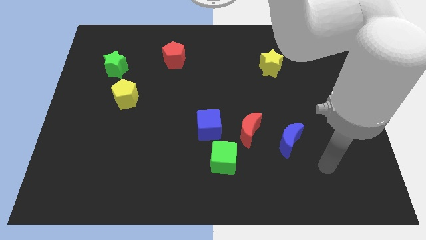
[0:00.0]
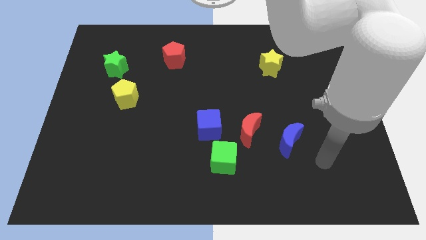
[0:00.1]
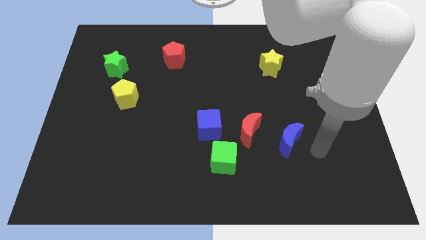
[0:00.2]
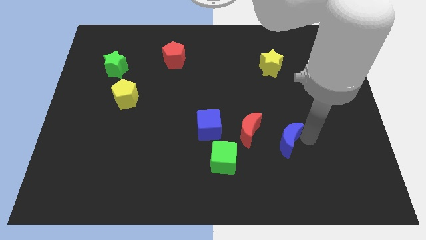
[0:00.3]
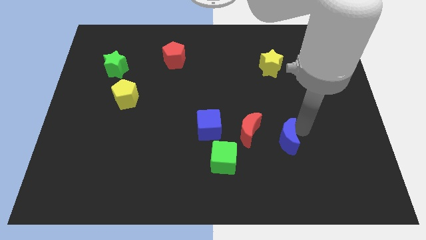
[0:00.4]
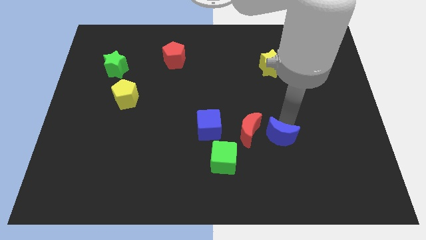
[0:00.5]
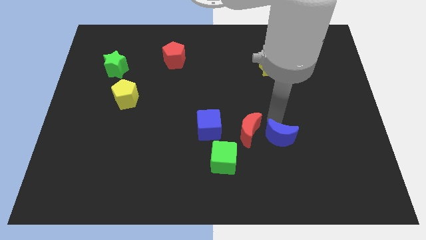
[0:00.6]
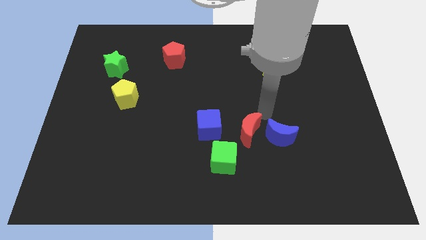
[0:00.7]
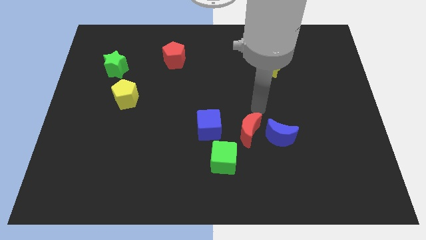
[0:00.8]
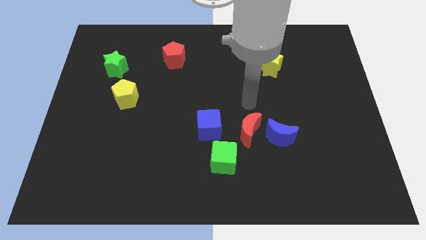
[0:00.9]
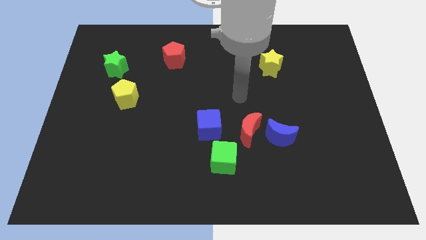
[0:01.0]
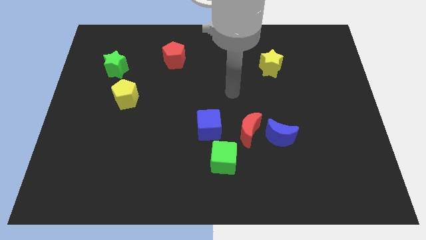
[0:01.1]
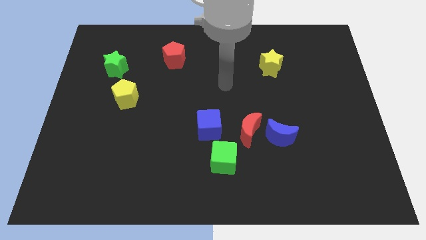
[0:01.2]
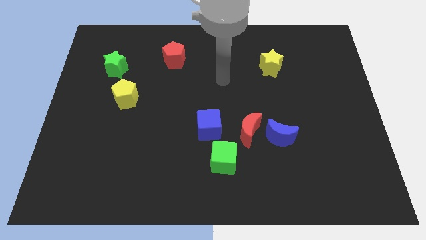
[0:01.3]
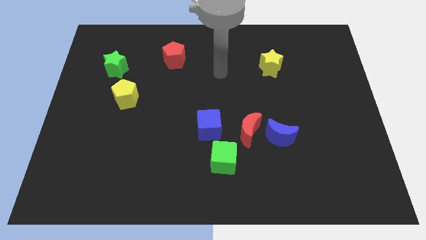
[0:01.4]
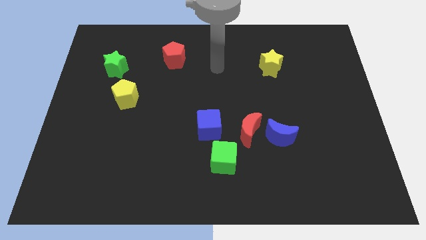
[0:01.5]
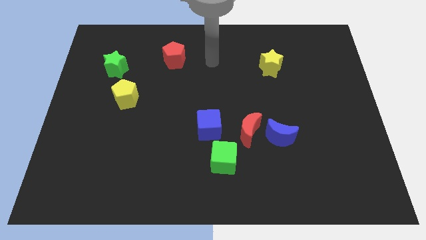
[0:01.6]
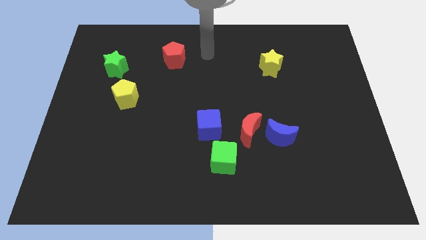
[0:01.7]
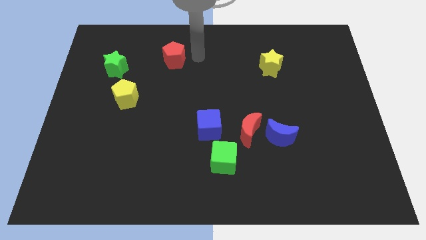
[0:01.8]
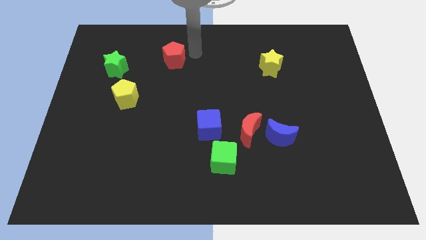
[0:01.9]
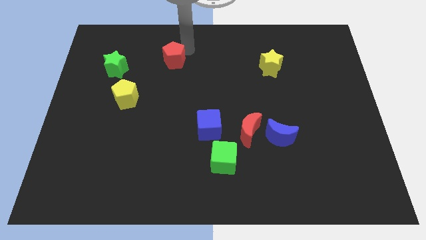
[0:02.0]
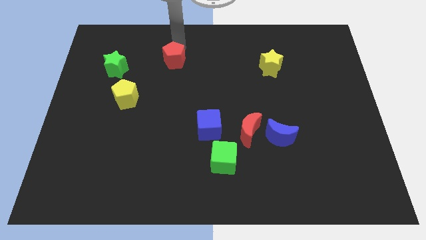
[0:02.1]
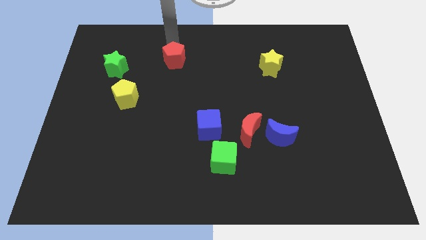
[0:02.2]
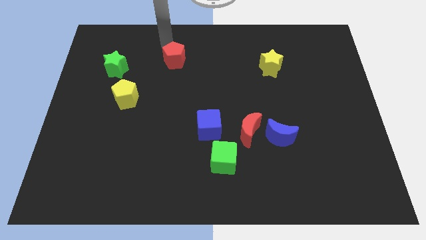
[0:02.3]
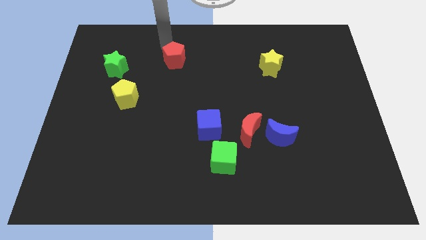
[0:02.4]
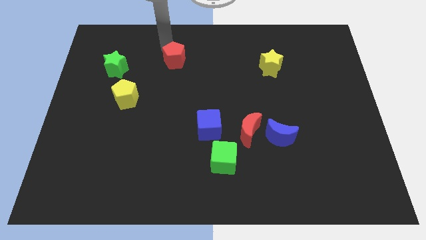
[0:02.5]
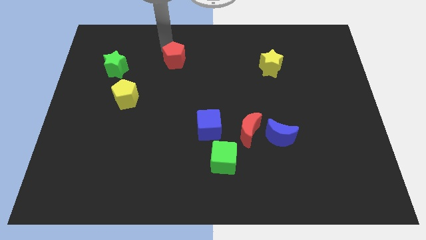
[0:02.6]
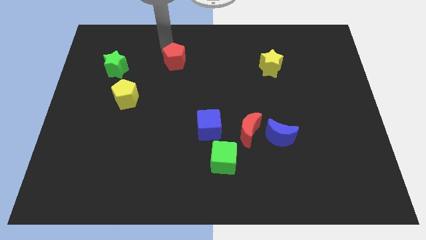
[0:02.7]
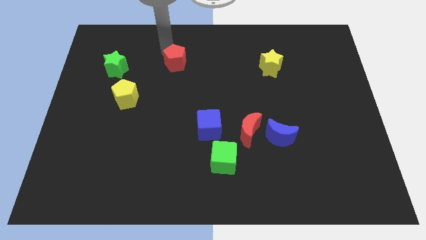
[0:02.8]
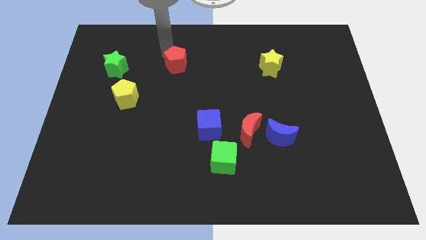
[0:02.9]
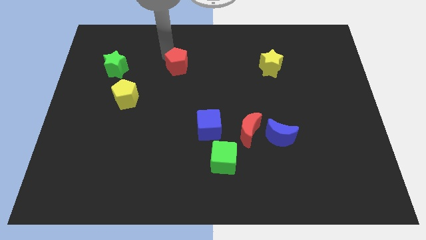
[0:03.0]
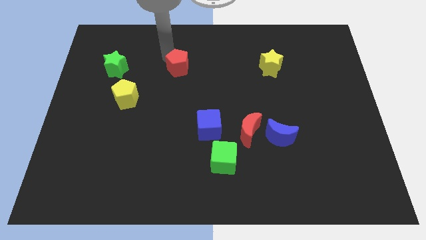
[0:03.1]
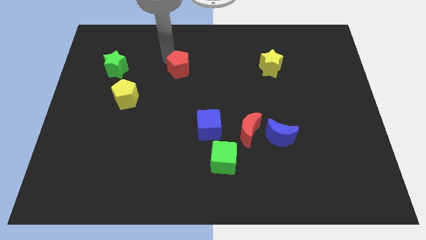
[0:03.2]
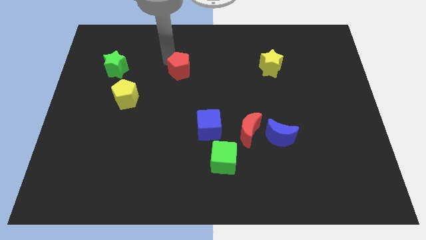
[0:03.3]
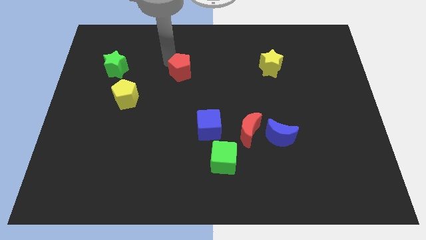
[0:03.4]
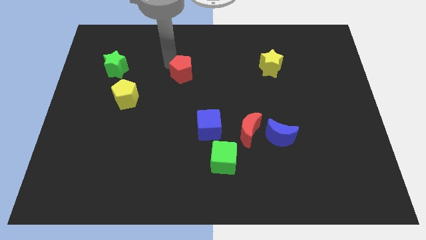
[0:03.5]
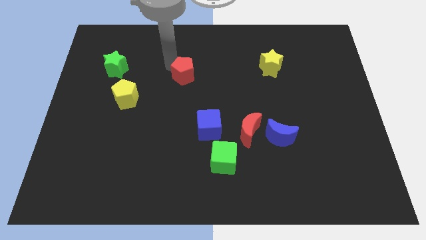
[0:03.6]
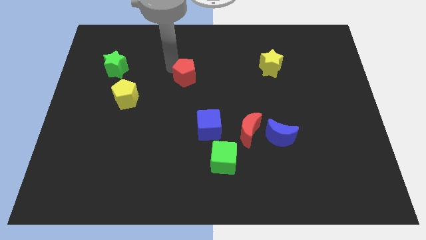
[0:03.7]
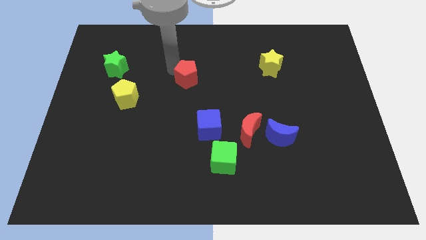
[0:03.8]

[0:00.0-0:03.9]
push the red pentagon downwards and to the right diagonally somewhat

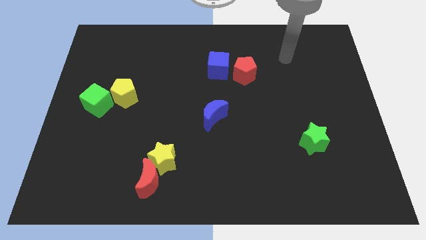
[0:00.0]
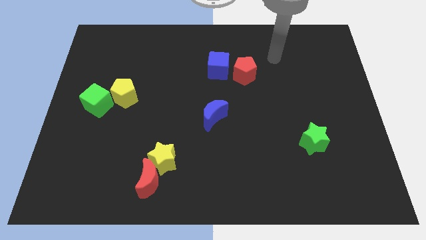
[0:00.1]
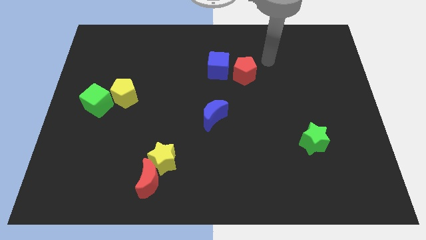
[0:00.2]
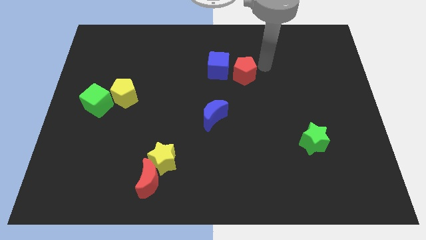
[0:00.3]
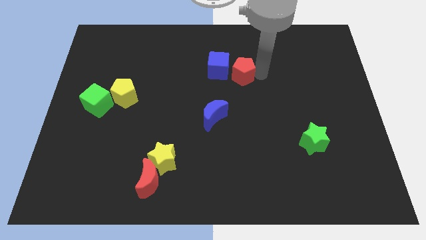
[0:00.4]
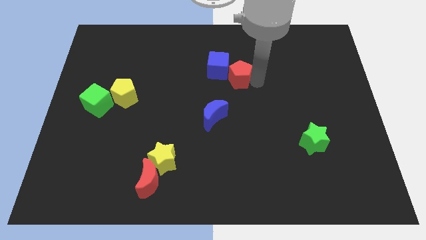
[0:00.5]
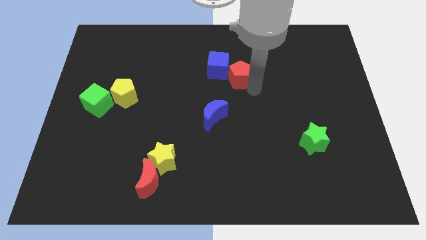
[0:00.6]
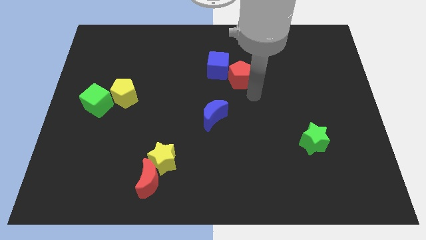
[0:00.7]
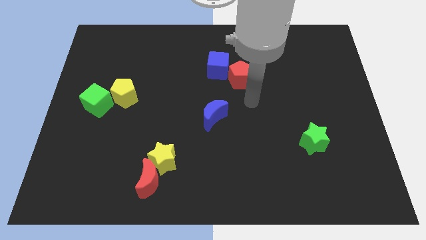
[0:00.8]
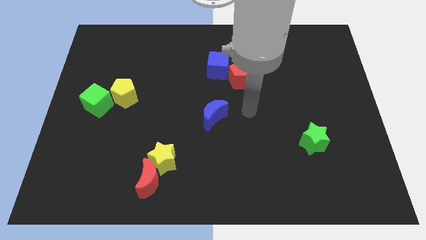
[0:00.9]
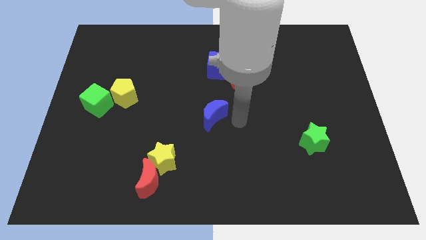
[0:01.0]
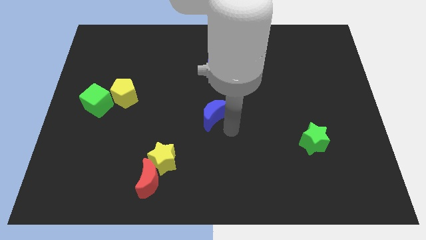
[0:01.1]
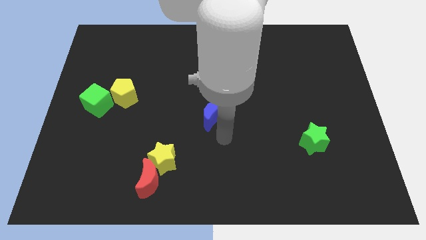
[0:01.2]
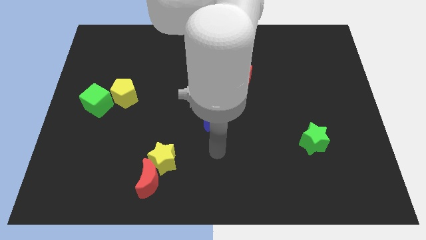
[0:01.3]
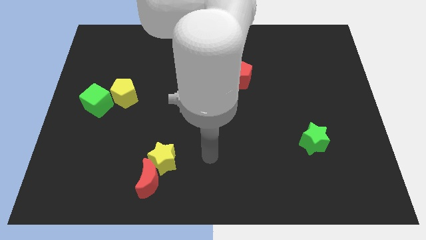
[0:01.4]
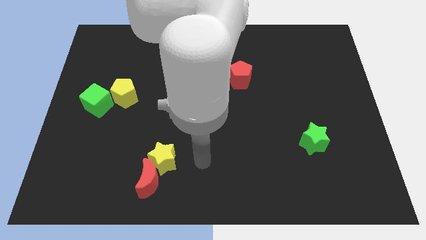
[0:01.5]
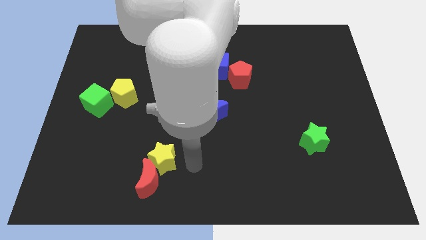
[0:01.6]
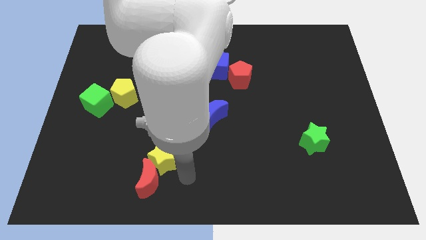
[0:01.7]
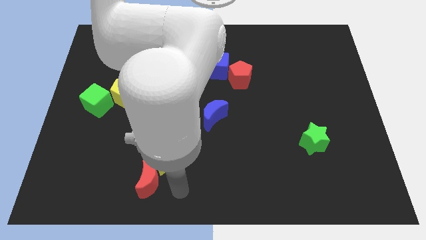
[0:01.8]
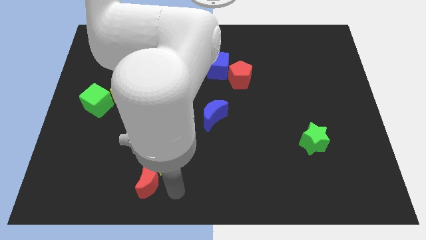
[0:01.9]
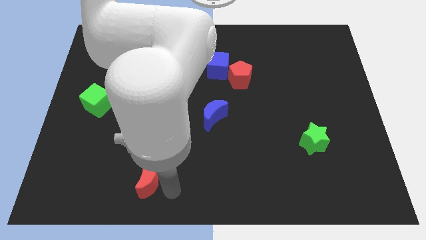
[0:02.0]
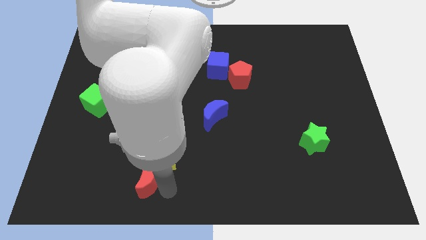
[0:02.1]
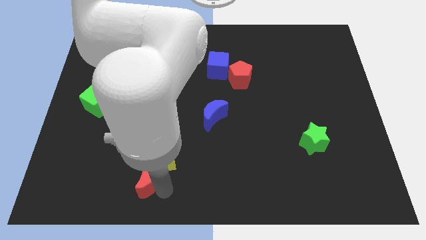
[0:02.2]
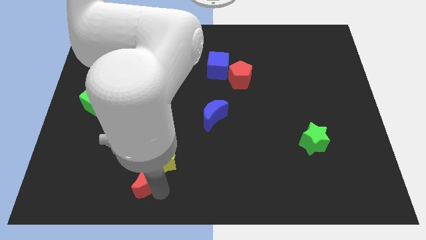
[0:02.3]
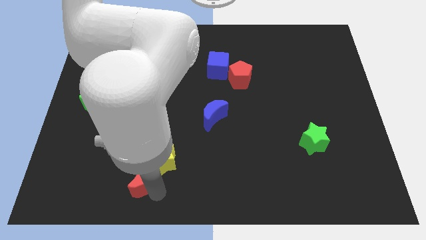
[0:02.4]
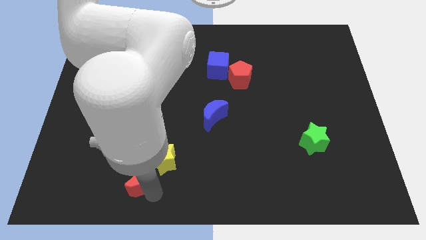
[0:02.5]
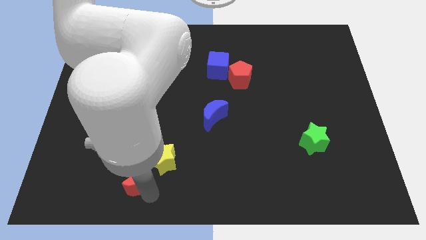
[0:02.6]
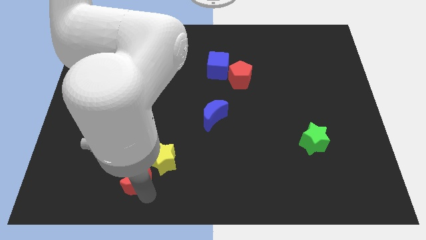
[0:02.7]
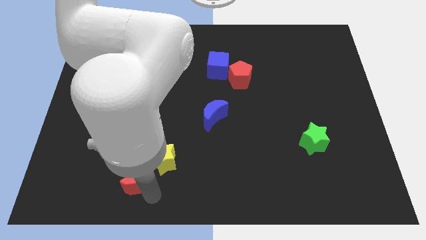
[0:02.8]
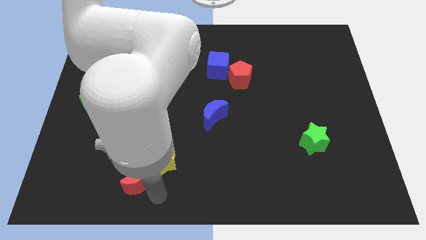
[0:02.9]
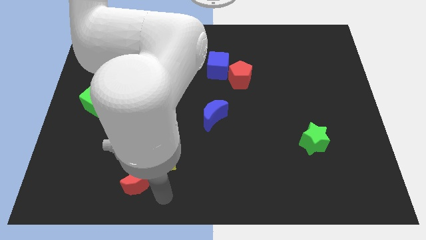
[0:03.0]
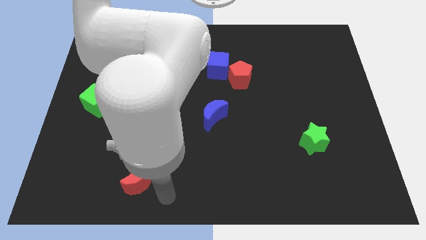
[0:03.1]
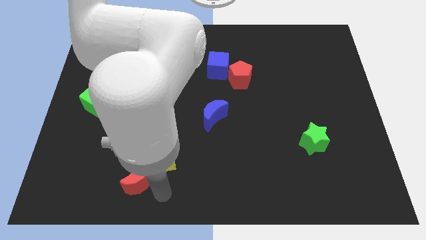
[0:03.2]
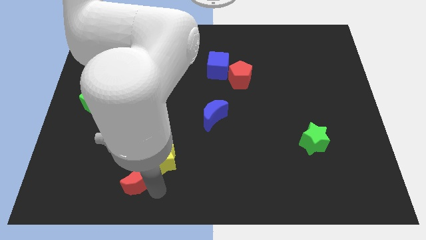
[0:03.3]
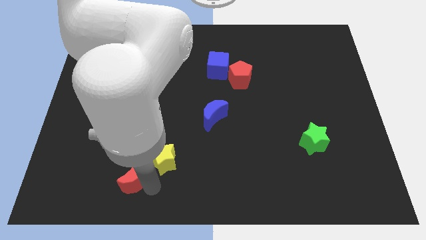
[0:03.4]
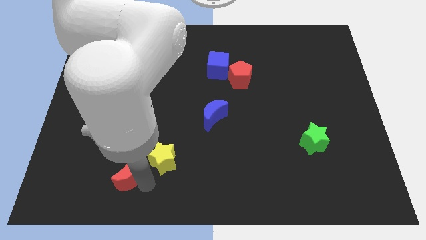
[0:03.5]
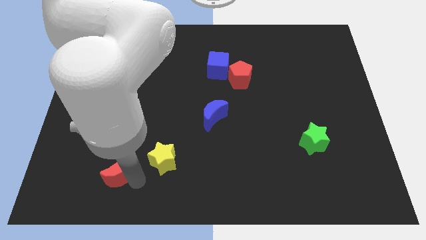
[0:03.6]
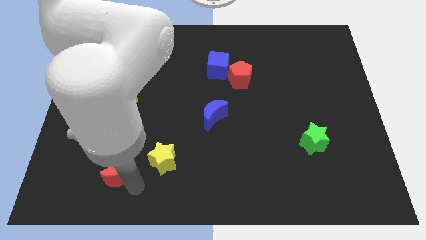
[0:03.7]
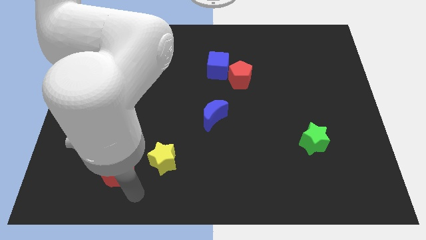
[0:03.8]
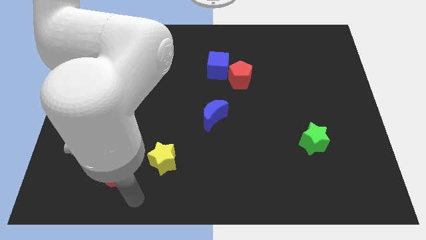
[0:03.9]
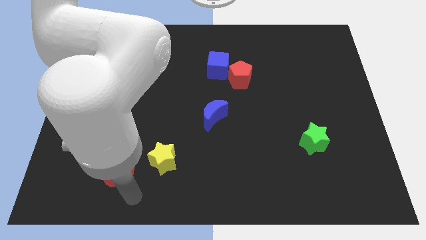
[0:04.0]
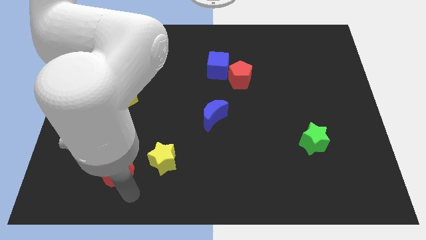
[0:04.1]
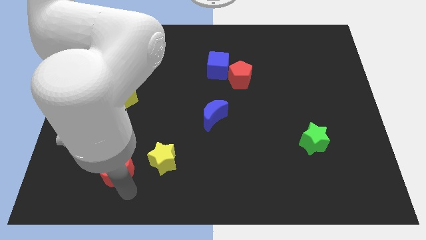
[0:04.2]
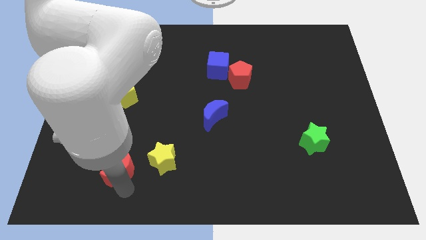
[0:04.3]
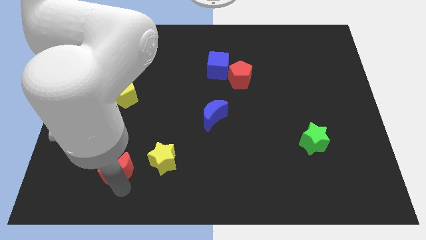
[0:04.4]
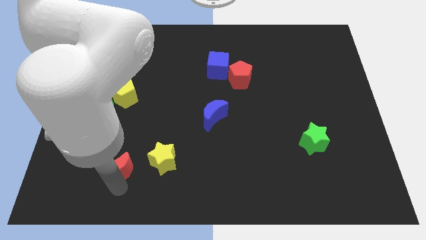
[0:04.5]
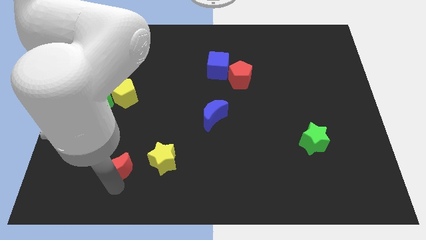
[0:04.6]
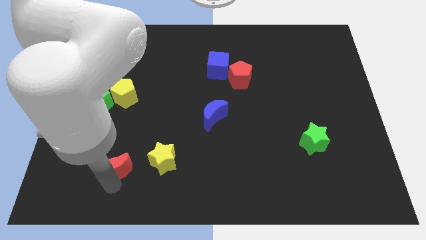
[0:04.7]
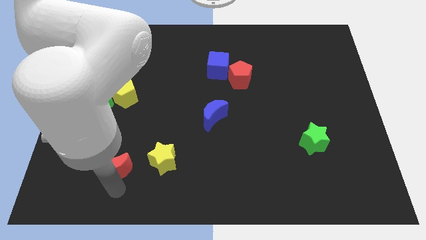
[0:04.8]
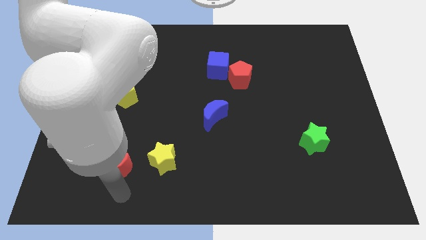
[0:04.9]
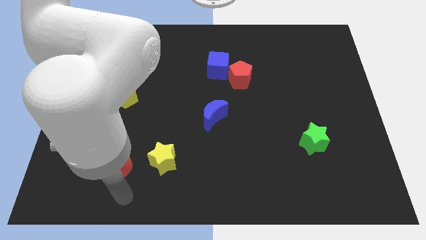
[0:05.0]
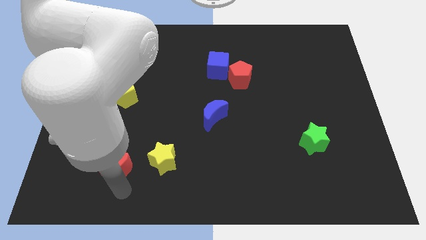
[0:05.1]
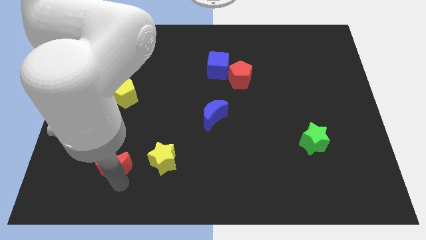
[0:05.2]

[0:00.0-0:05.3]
slightly slide the red moon upwards and to the left diagonally
